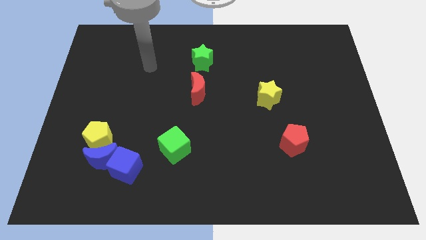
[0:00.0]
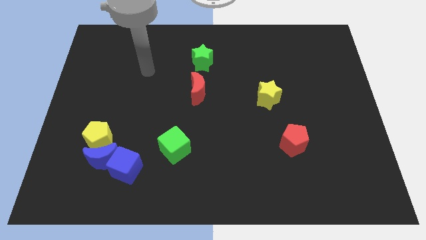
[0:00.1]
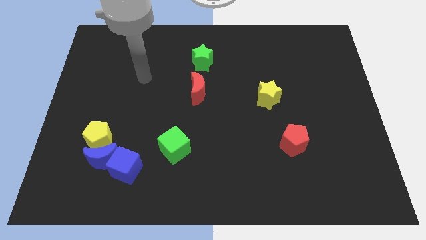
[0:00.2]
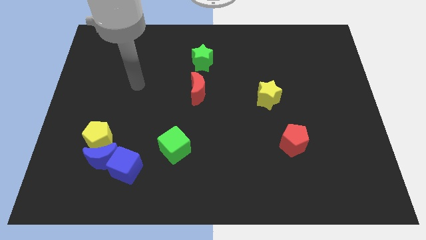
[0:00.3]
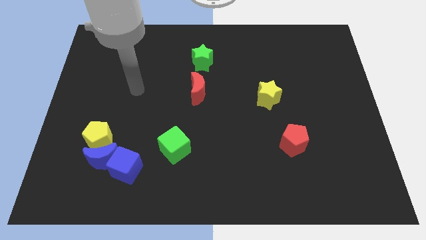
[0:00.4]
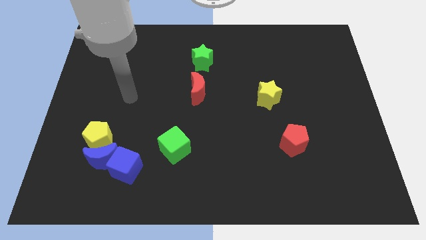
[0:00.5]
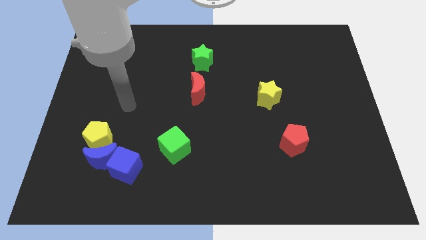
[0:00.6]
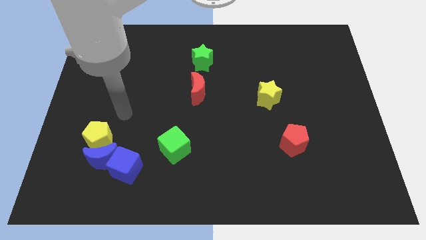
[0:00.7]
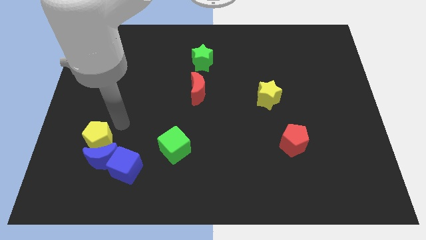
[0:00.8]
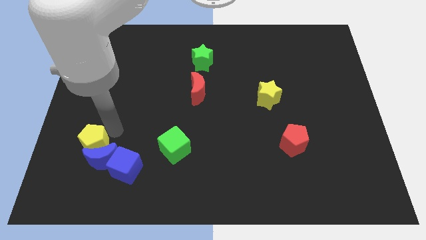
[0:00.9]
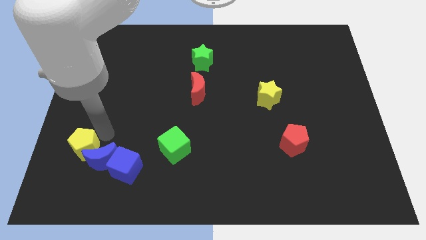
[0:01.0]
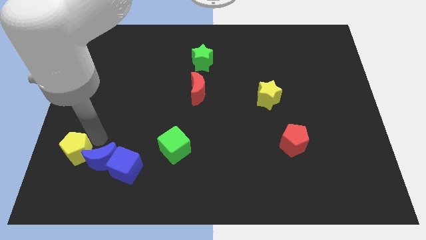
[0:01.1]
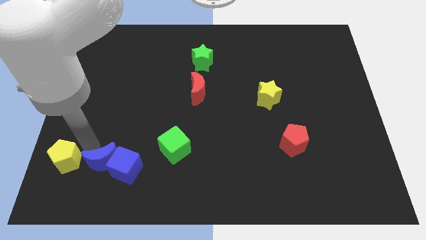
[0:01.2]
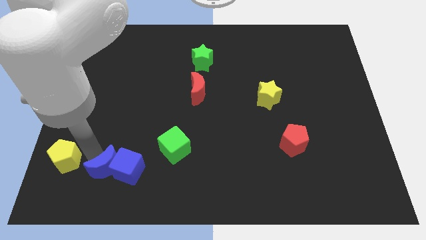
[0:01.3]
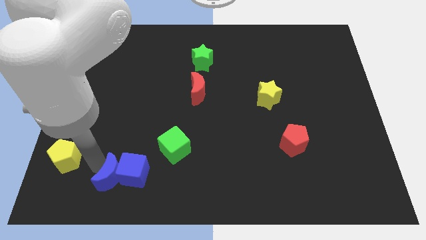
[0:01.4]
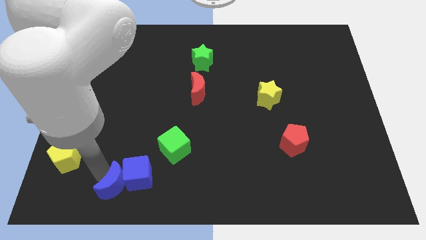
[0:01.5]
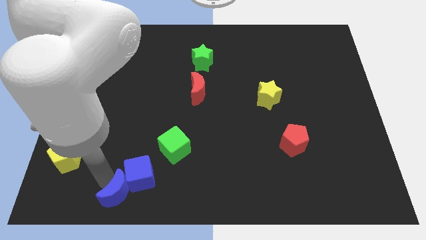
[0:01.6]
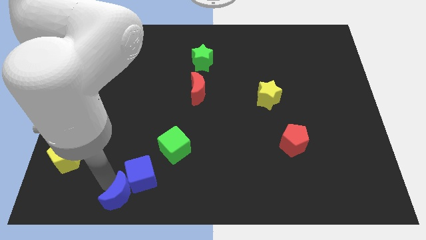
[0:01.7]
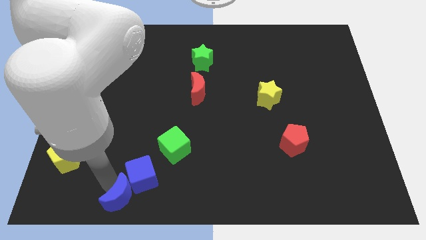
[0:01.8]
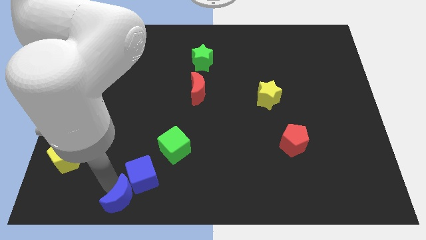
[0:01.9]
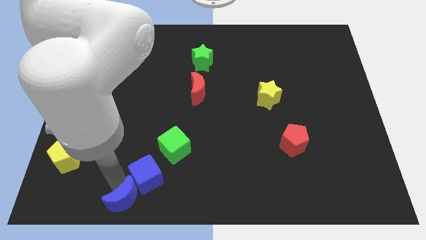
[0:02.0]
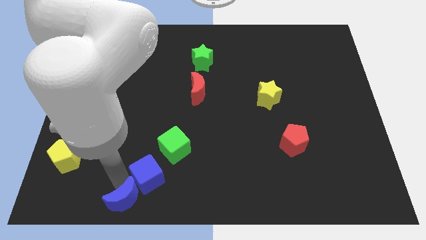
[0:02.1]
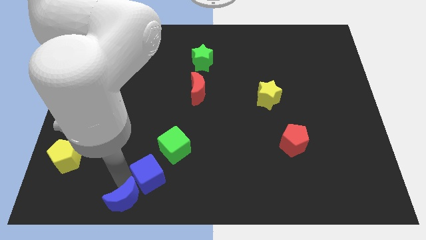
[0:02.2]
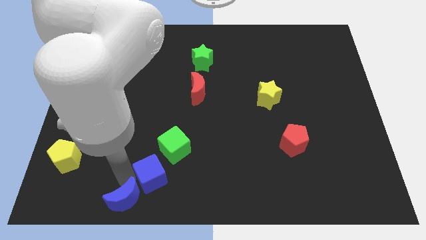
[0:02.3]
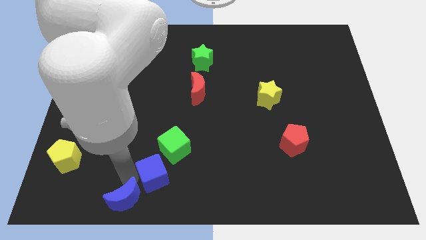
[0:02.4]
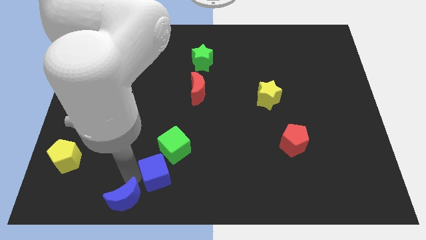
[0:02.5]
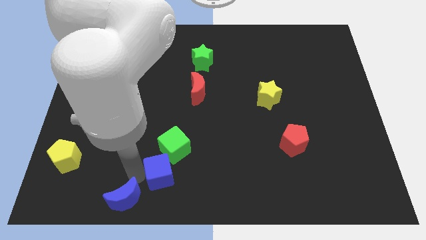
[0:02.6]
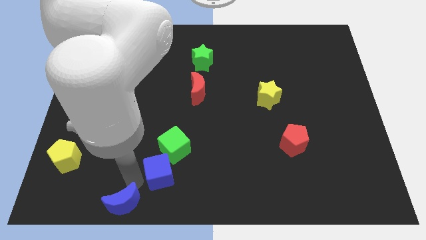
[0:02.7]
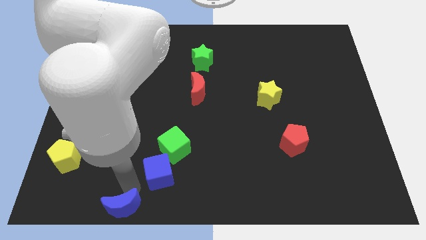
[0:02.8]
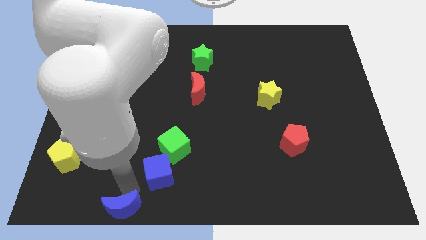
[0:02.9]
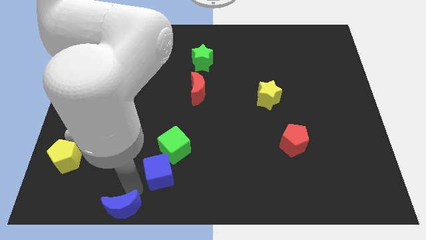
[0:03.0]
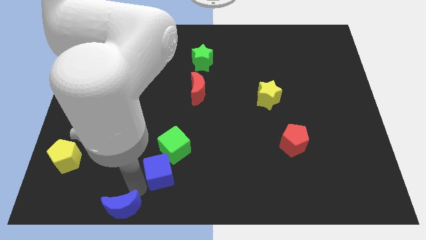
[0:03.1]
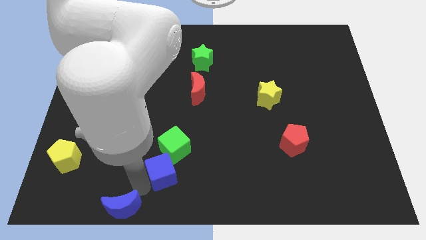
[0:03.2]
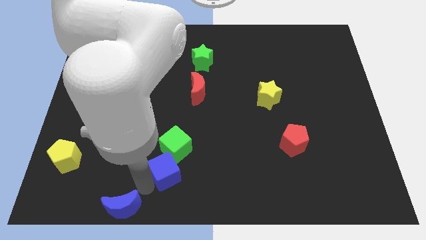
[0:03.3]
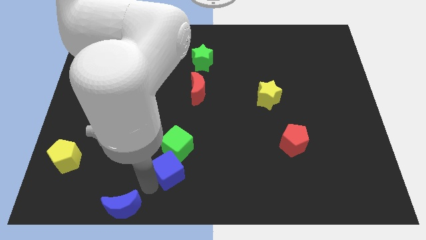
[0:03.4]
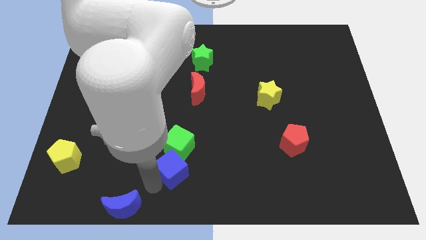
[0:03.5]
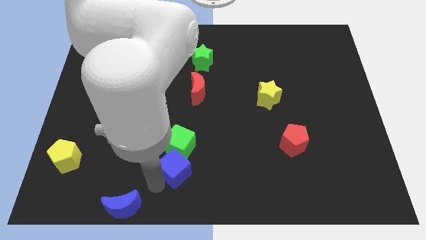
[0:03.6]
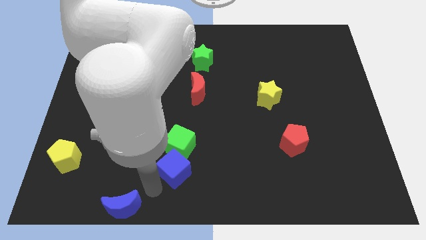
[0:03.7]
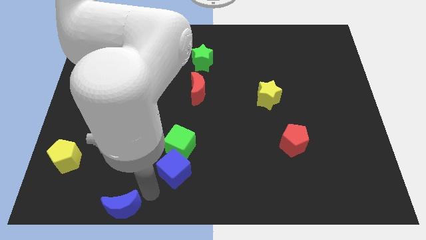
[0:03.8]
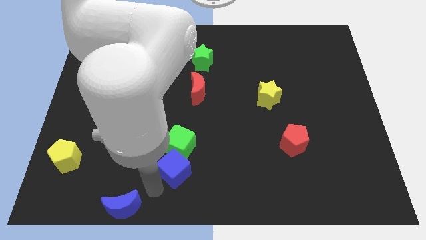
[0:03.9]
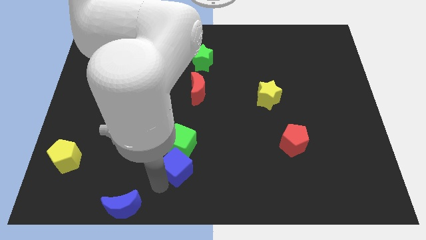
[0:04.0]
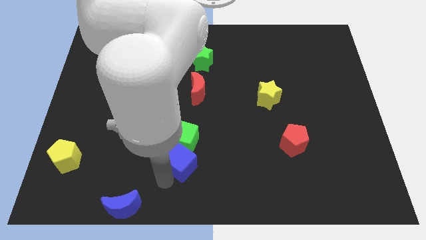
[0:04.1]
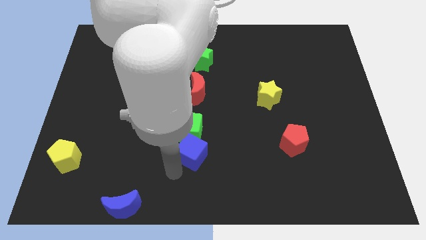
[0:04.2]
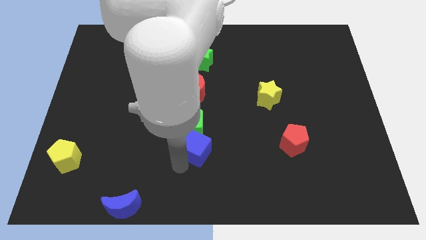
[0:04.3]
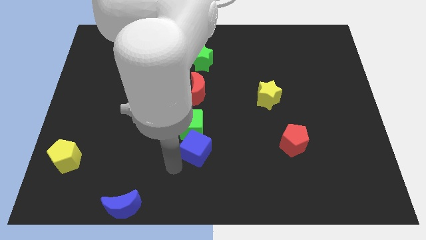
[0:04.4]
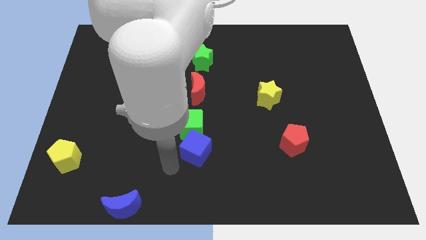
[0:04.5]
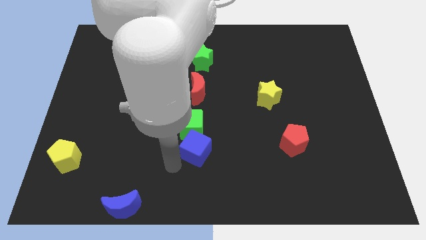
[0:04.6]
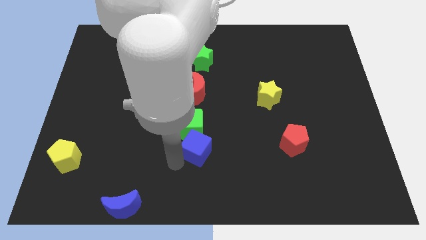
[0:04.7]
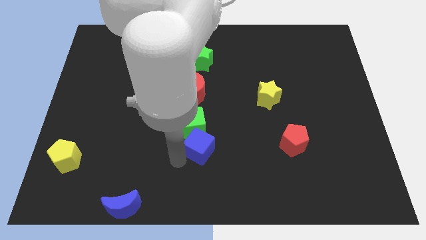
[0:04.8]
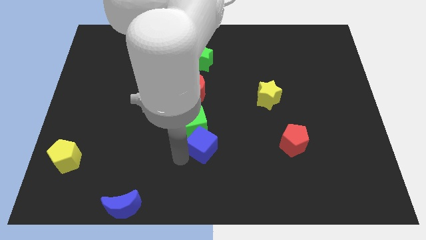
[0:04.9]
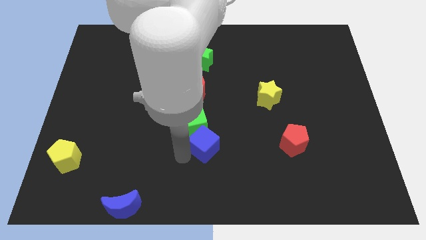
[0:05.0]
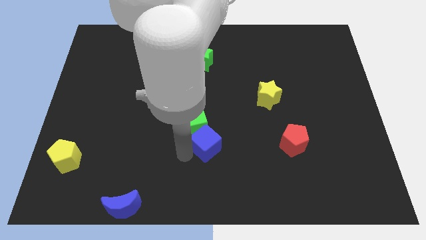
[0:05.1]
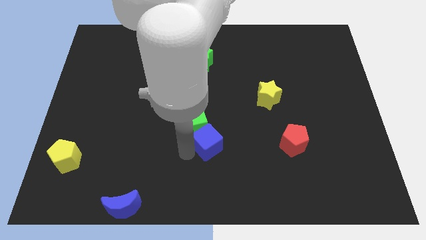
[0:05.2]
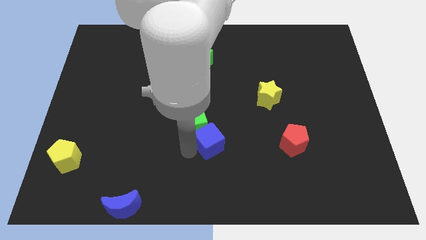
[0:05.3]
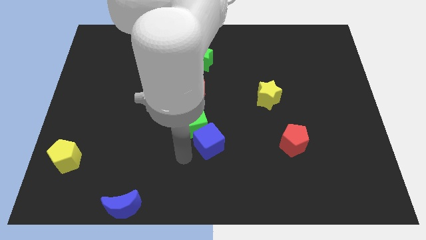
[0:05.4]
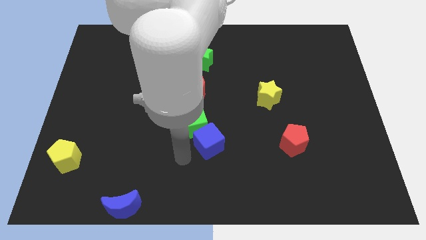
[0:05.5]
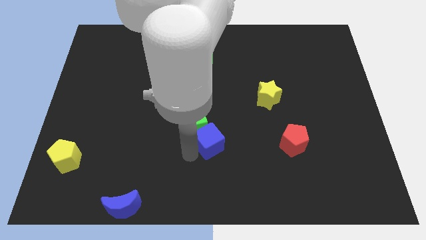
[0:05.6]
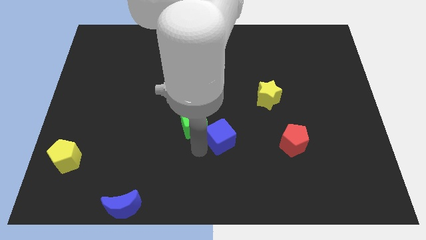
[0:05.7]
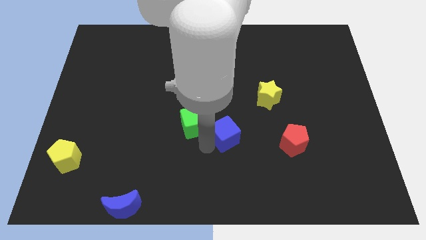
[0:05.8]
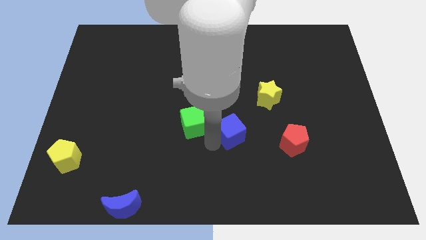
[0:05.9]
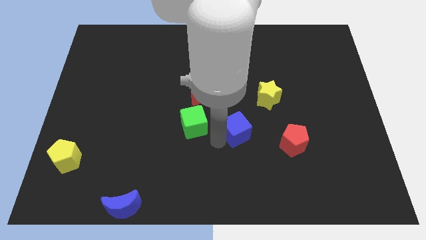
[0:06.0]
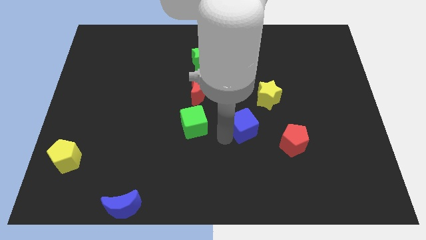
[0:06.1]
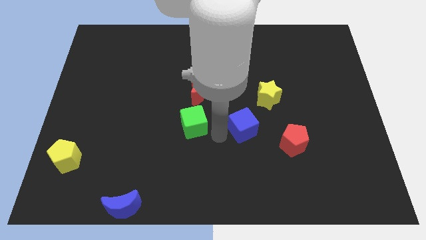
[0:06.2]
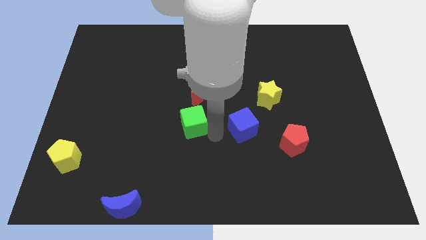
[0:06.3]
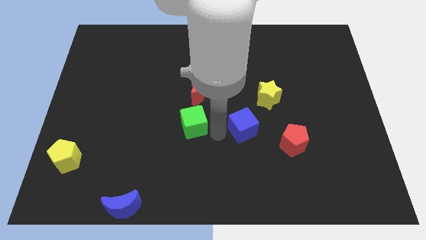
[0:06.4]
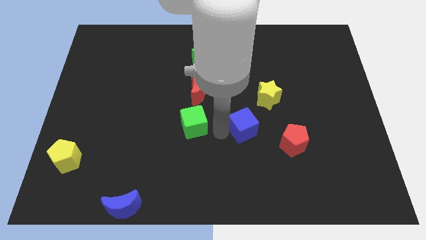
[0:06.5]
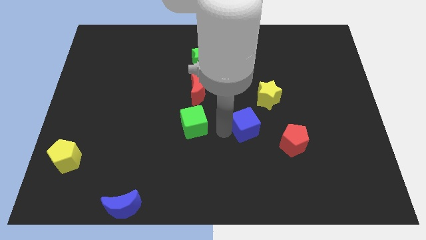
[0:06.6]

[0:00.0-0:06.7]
put the blue cube diagonally up and to the left of the red pentagon

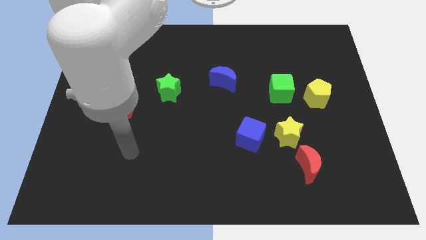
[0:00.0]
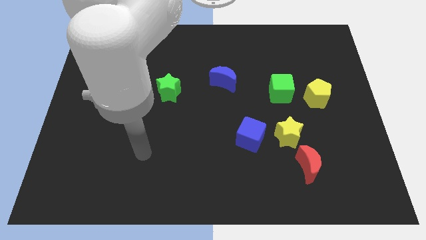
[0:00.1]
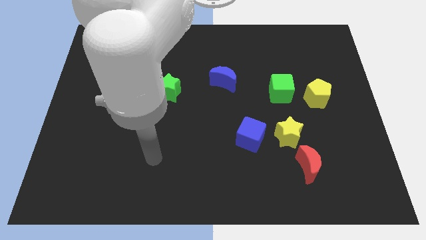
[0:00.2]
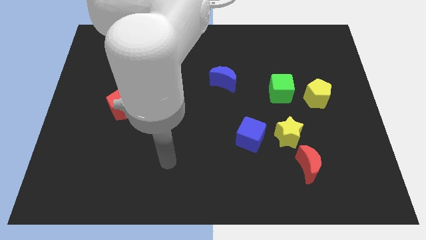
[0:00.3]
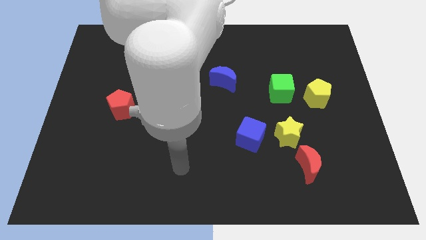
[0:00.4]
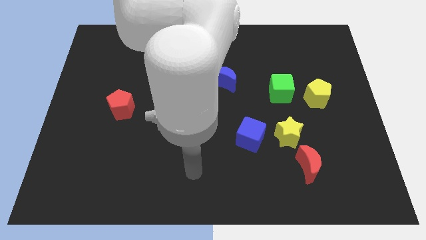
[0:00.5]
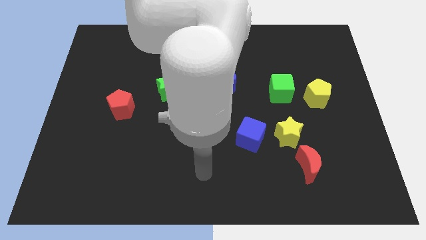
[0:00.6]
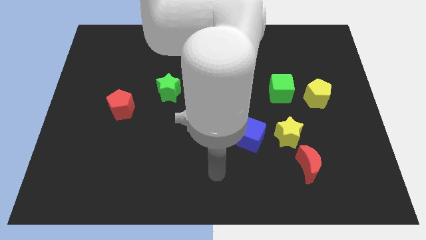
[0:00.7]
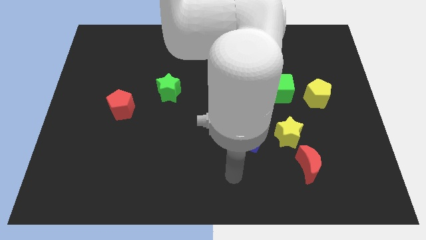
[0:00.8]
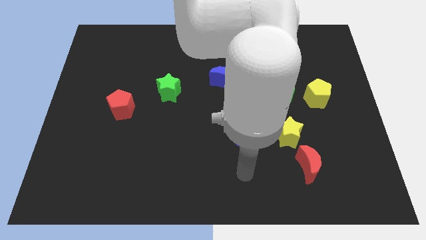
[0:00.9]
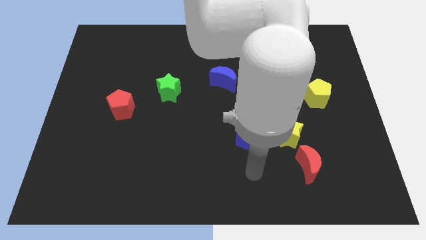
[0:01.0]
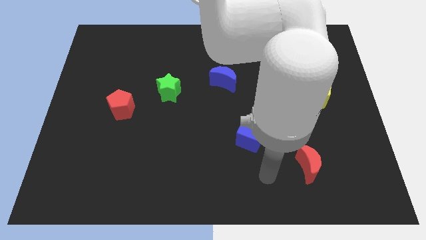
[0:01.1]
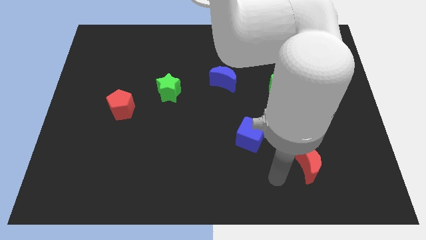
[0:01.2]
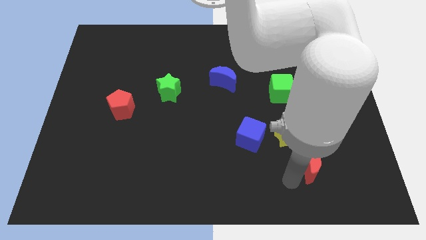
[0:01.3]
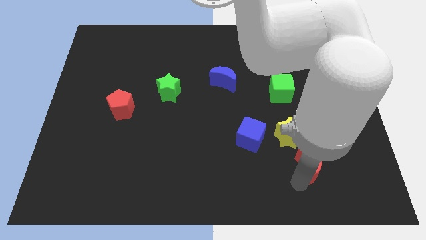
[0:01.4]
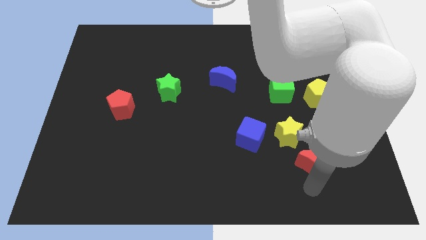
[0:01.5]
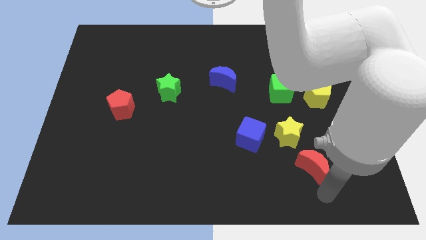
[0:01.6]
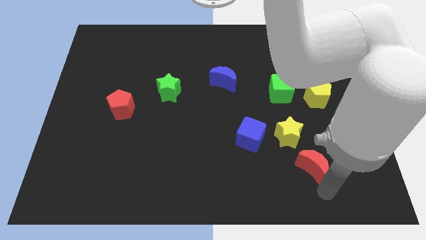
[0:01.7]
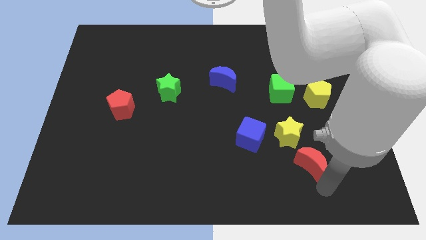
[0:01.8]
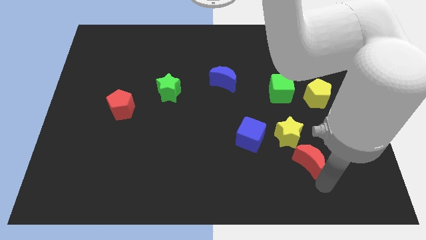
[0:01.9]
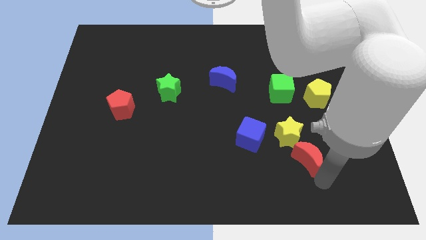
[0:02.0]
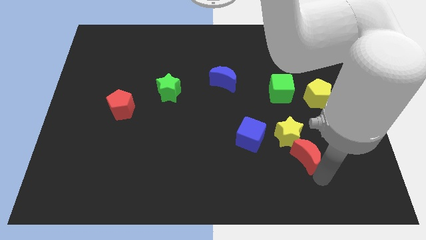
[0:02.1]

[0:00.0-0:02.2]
push the red moon to the right of the blue cube
